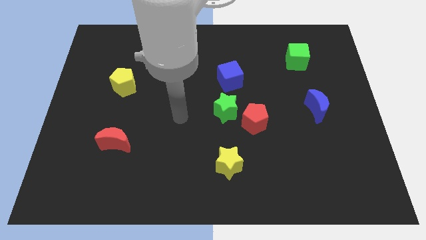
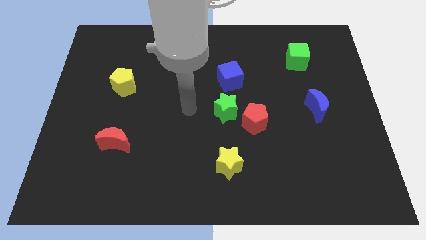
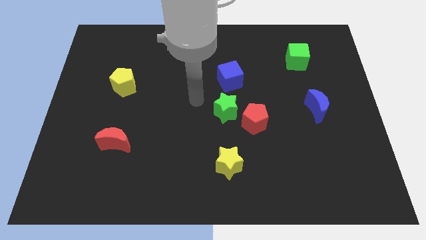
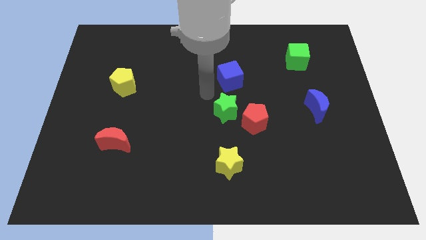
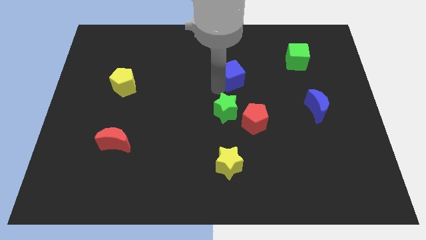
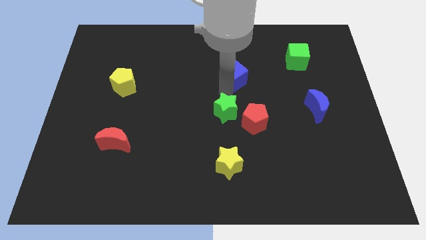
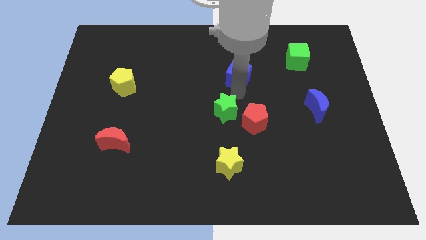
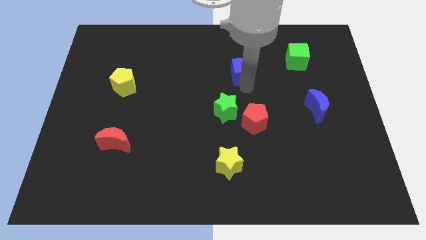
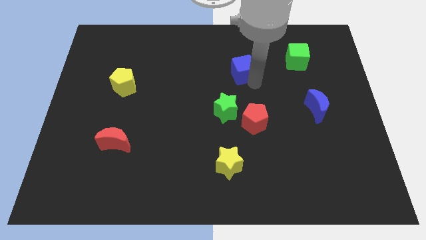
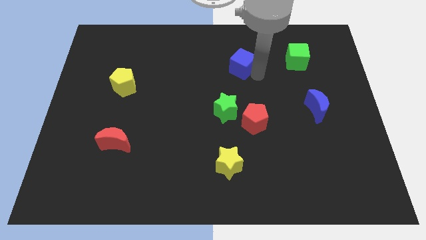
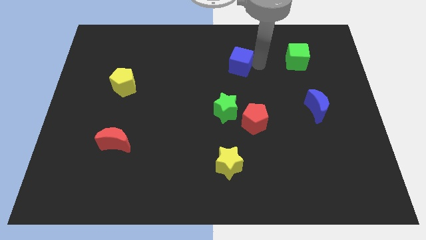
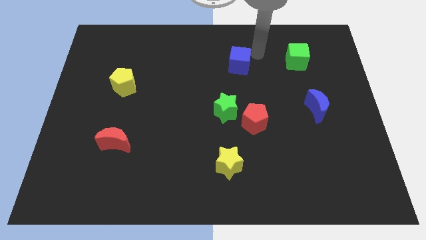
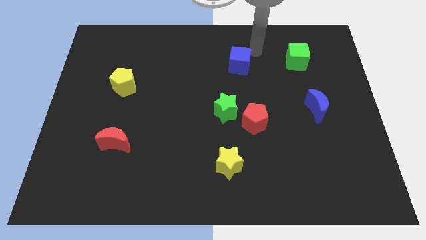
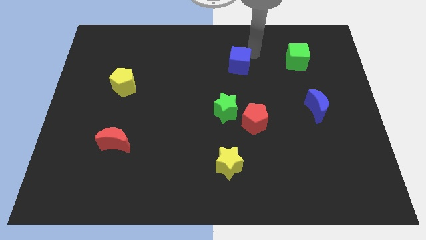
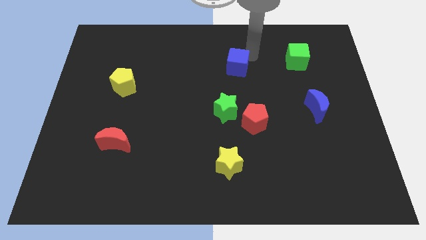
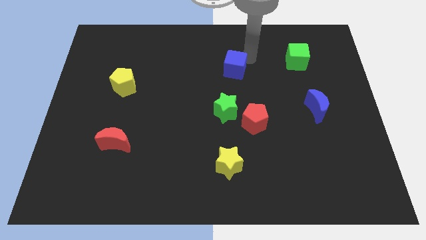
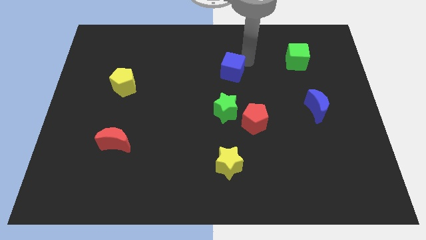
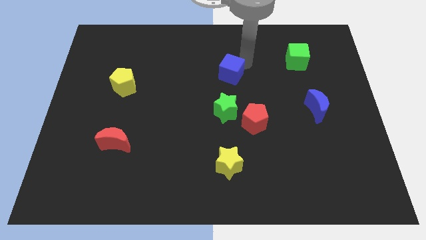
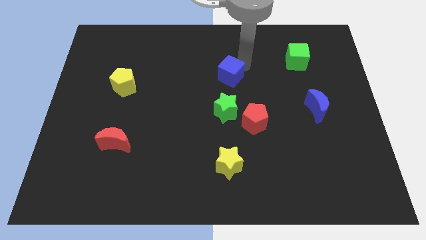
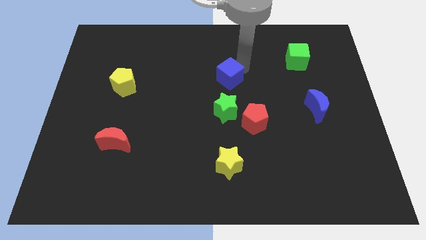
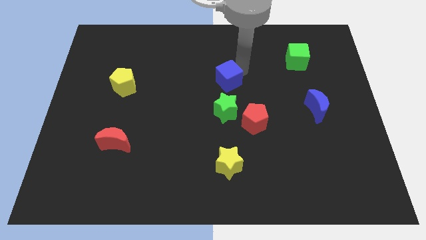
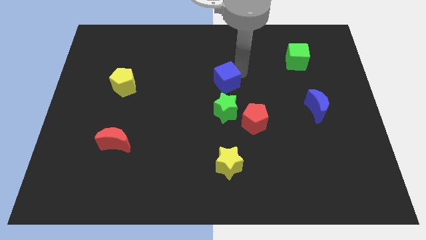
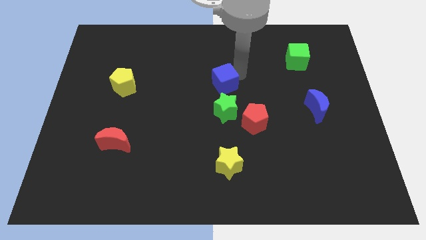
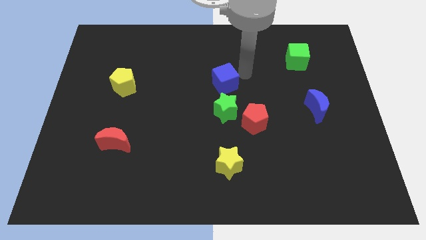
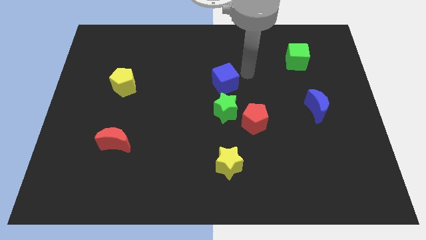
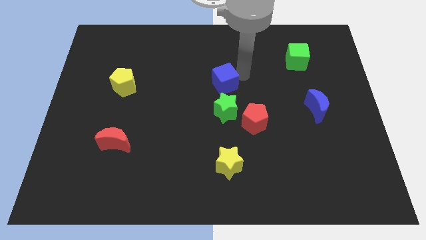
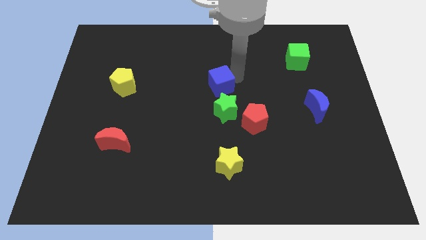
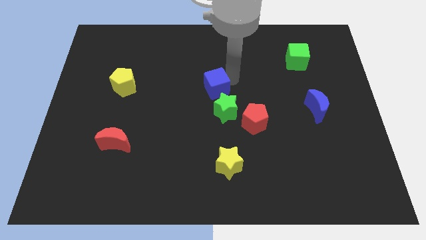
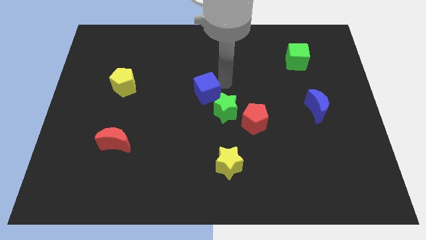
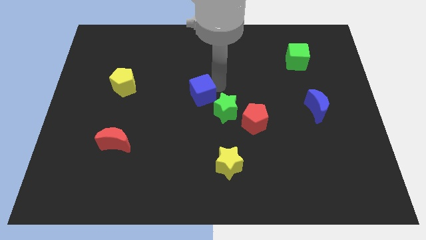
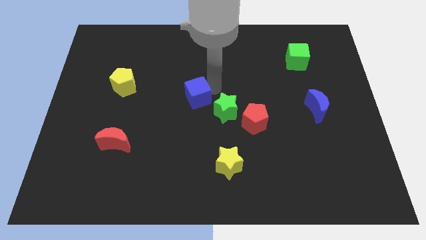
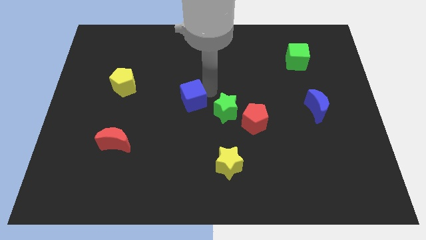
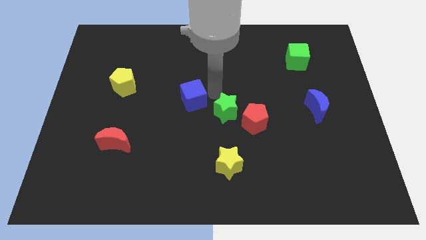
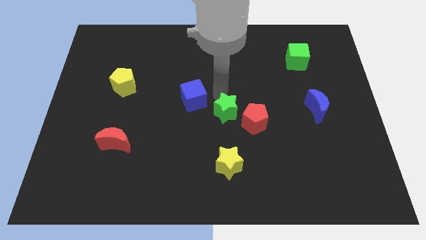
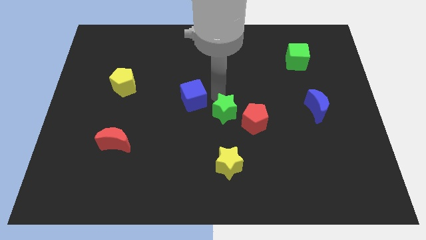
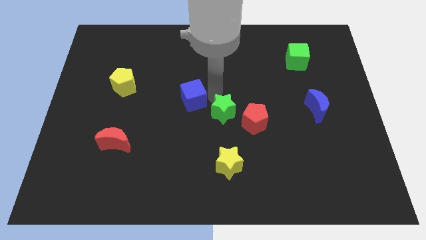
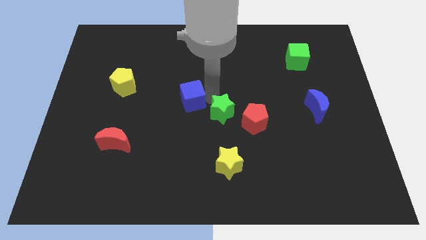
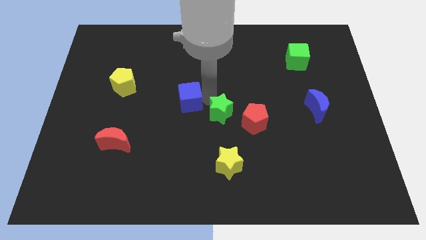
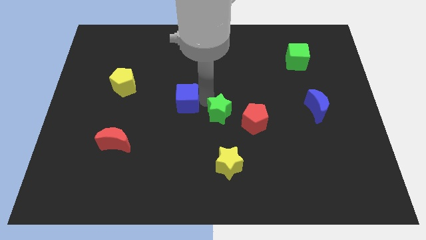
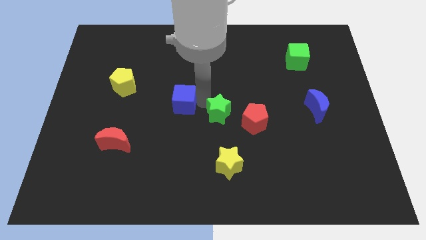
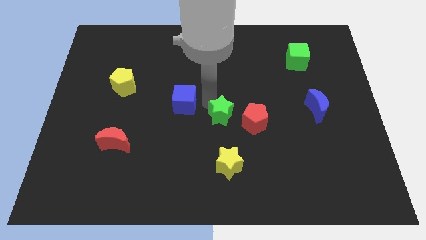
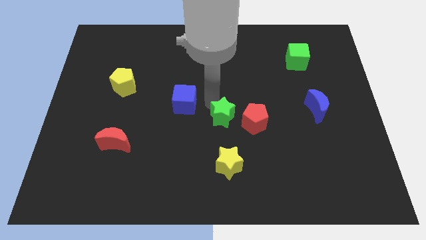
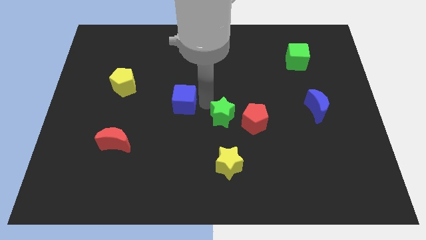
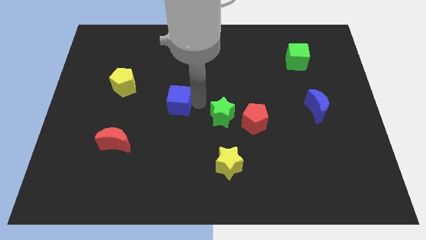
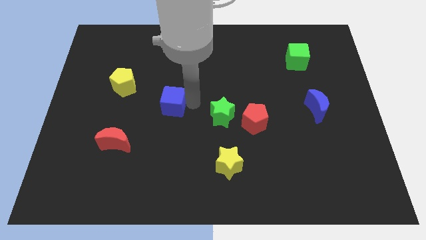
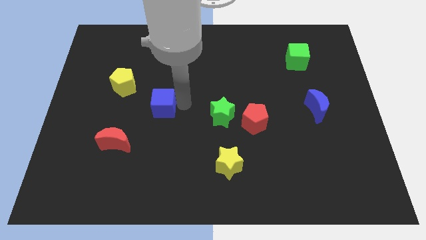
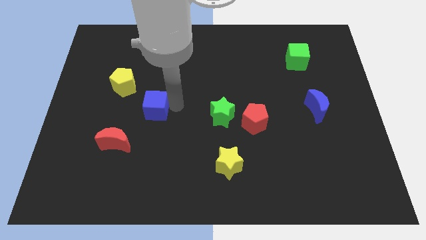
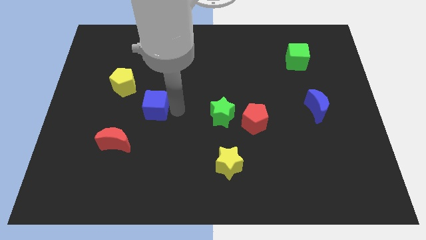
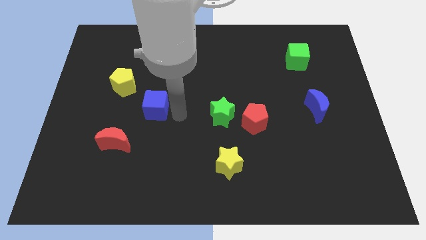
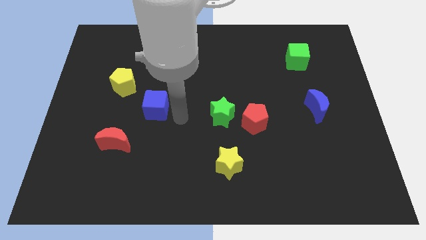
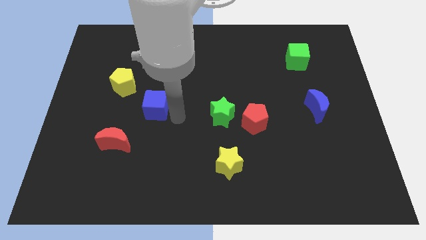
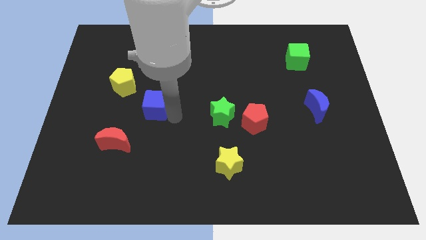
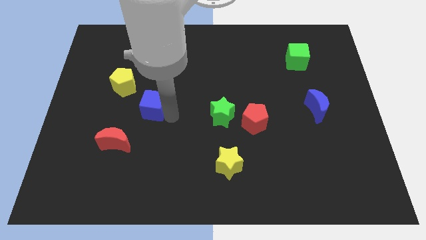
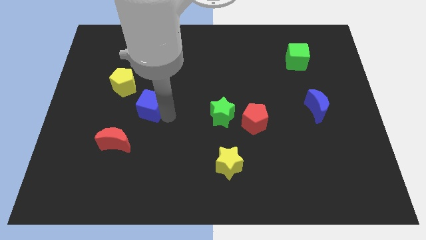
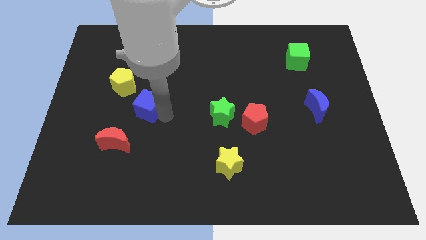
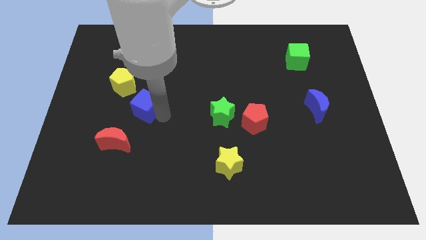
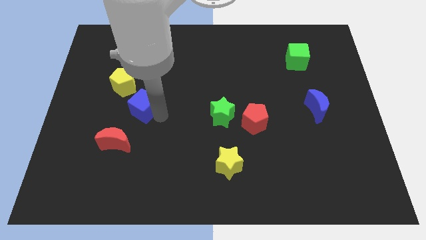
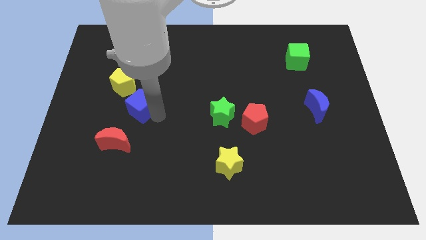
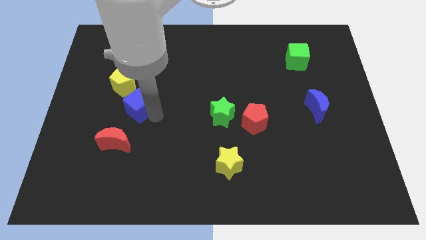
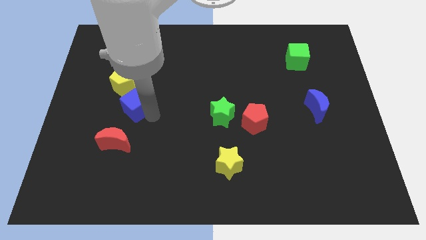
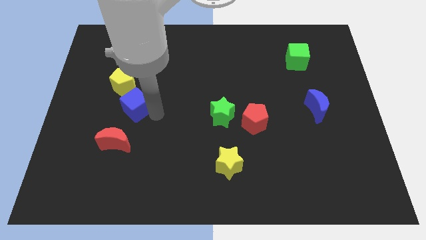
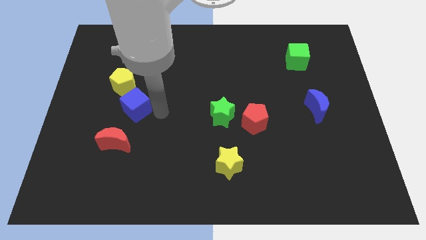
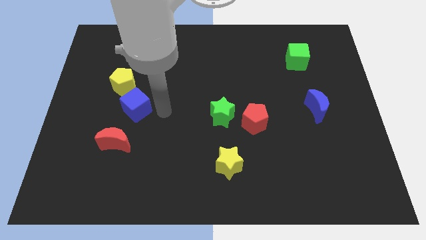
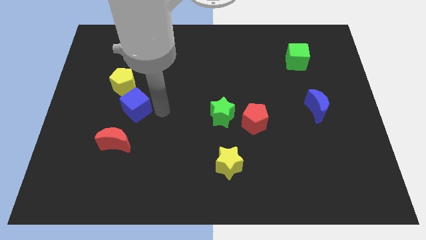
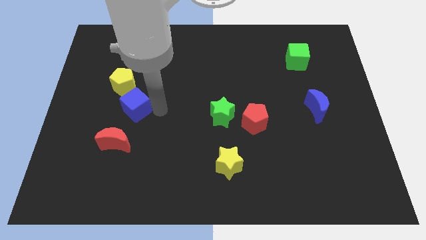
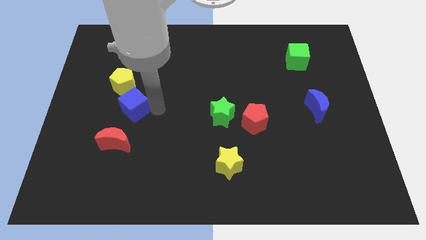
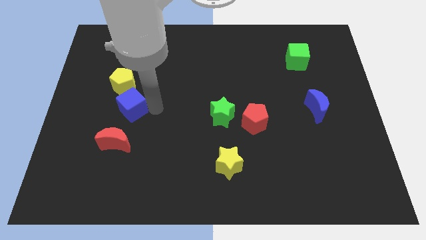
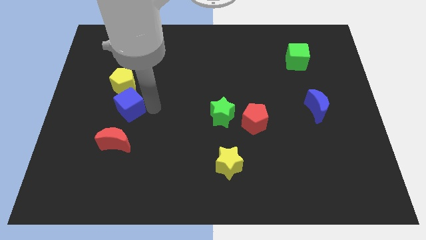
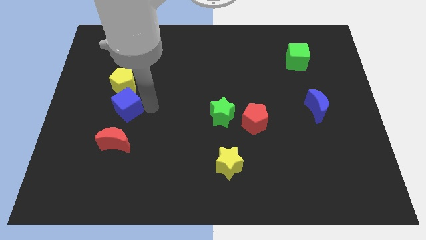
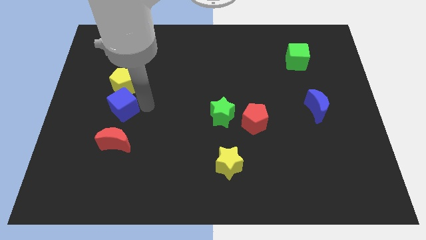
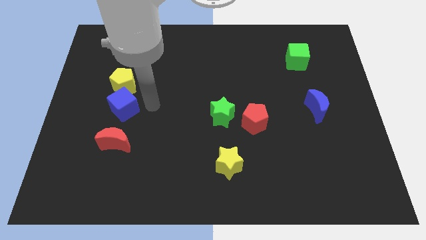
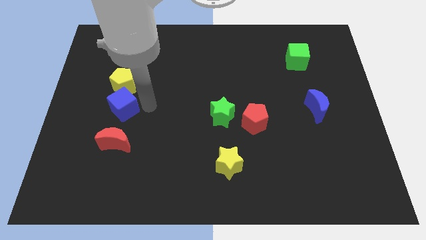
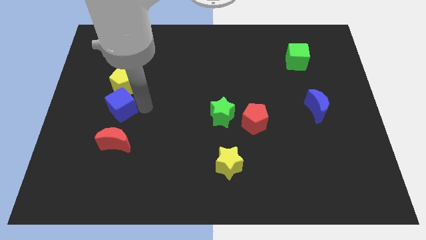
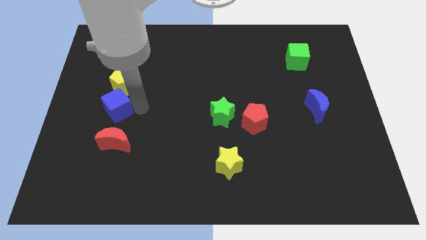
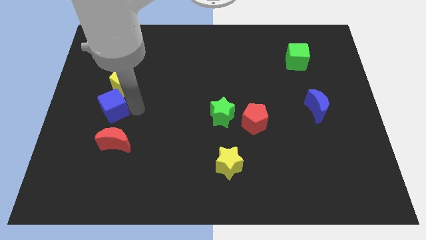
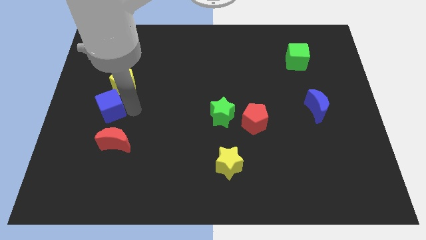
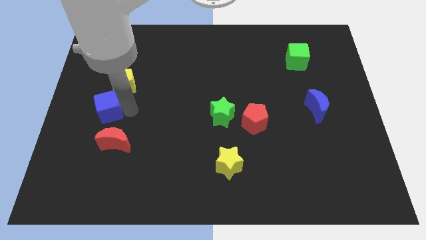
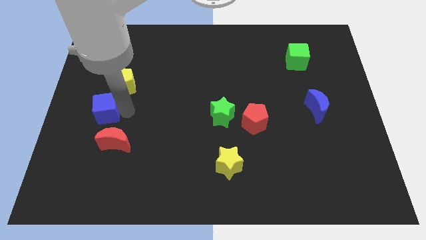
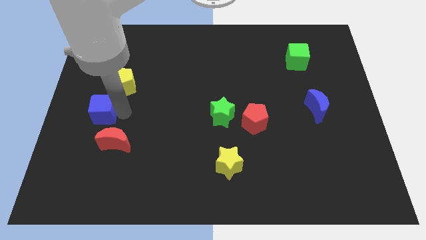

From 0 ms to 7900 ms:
put the blue cube to the left side of the board

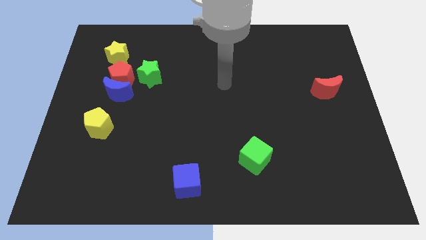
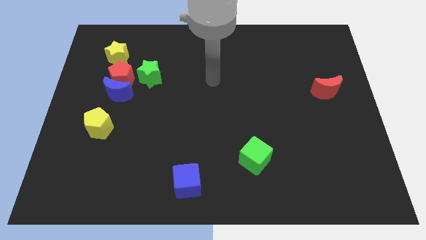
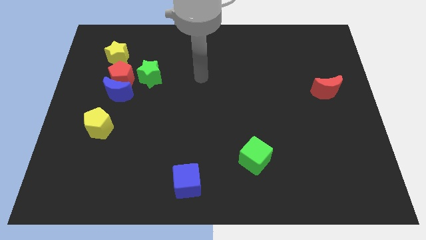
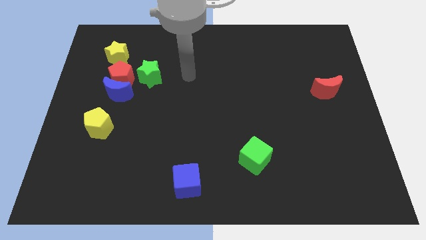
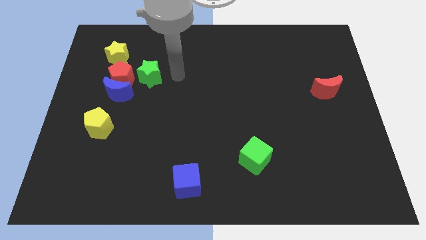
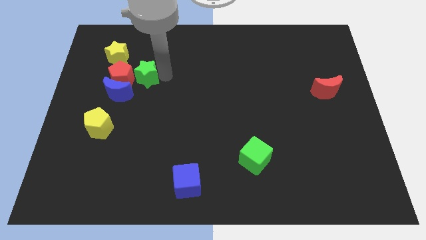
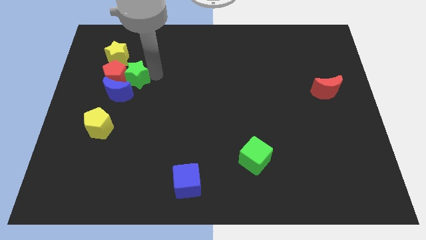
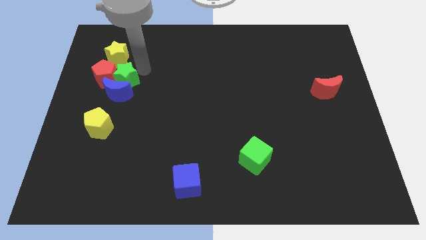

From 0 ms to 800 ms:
slide the red pentagon to the center left
